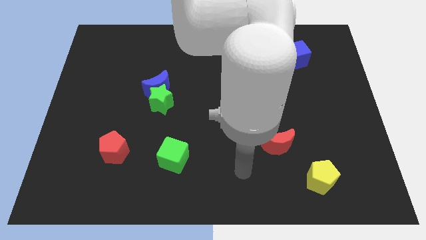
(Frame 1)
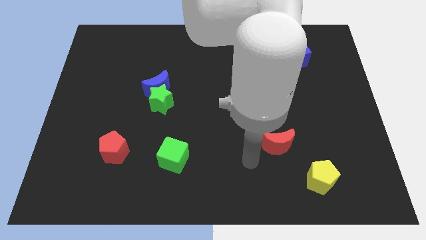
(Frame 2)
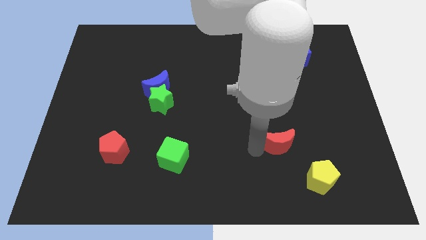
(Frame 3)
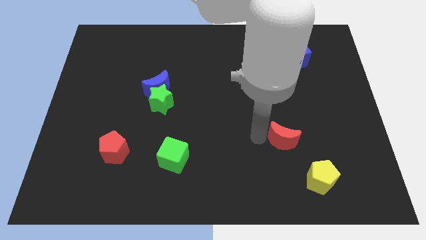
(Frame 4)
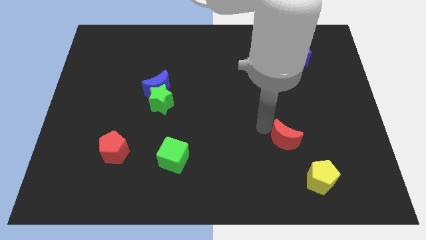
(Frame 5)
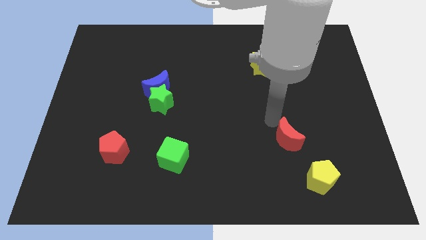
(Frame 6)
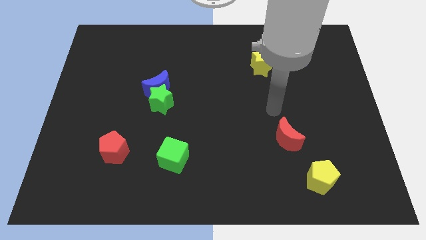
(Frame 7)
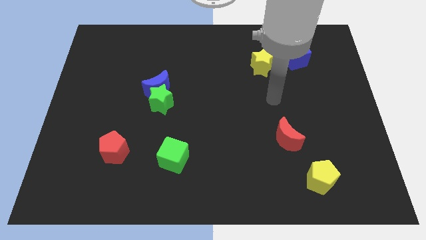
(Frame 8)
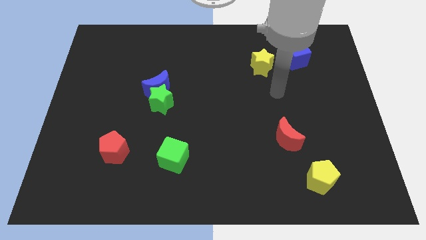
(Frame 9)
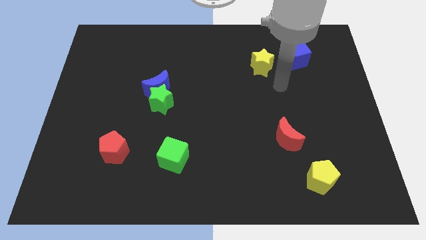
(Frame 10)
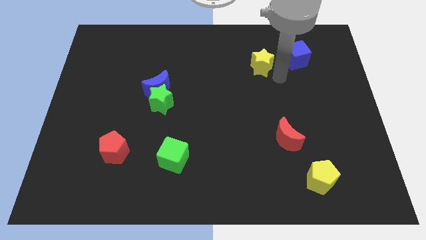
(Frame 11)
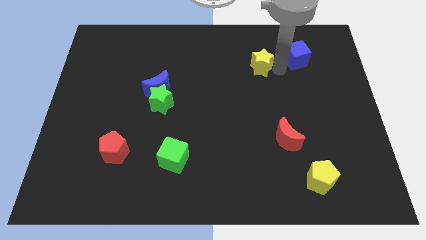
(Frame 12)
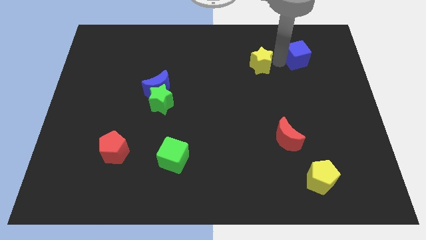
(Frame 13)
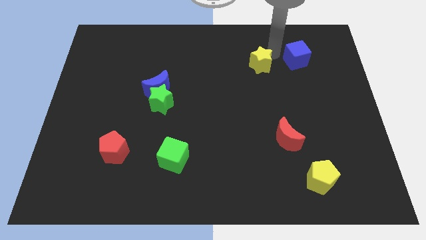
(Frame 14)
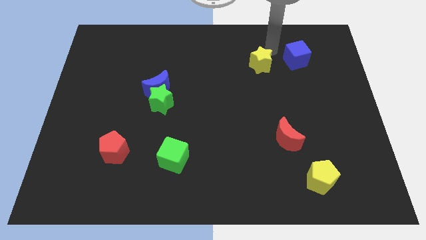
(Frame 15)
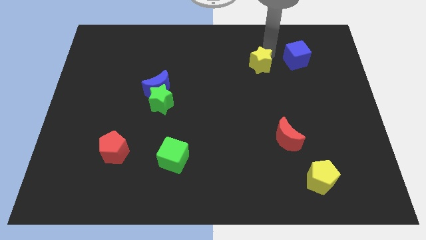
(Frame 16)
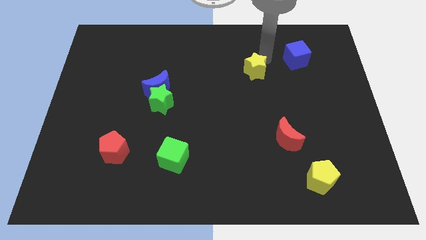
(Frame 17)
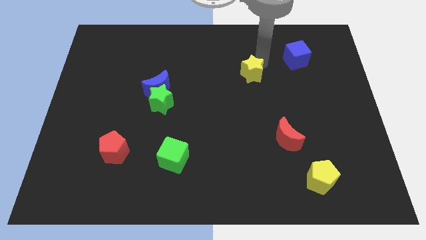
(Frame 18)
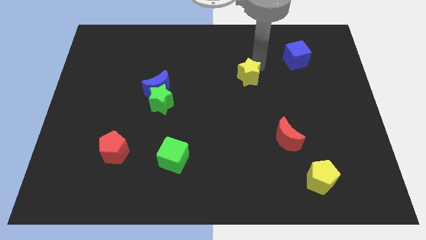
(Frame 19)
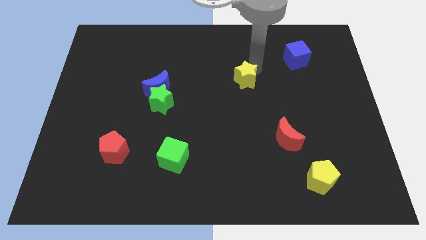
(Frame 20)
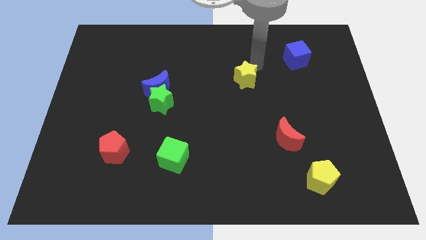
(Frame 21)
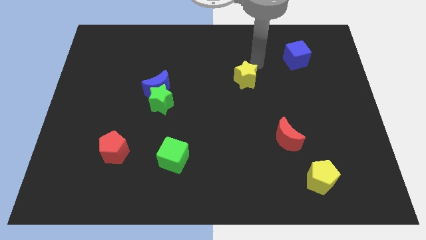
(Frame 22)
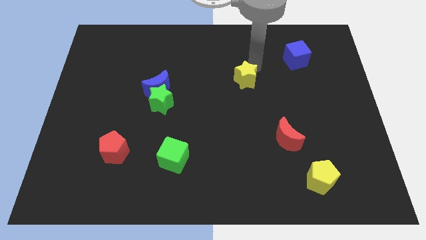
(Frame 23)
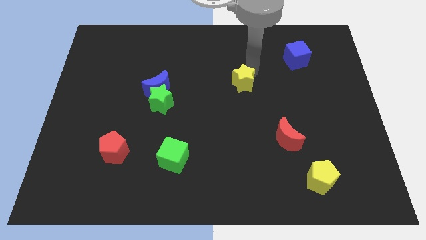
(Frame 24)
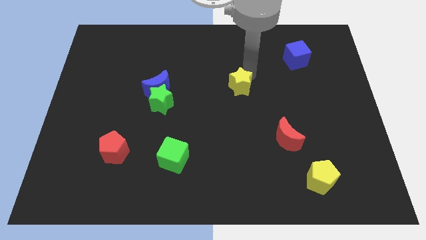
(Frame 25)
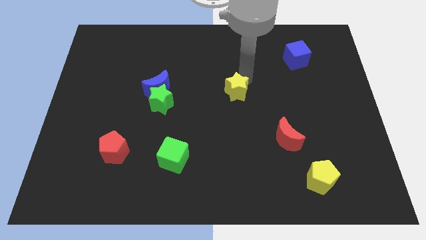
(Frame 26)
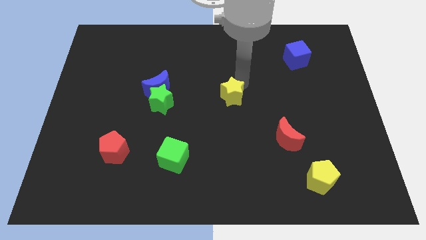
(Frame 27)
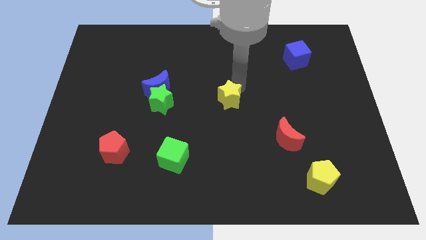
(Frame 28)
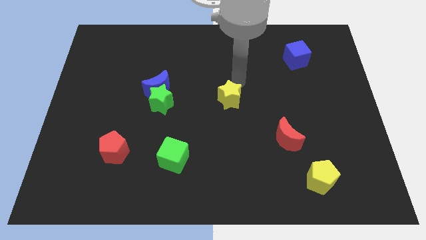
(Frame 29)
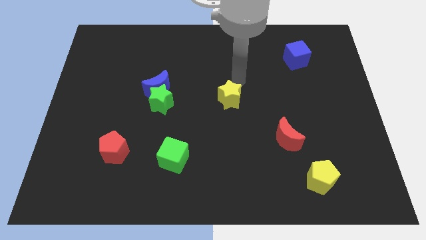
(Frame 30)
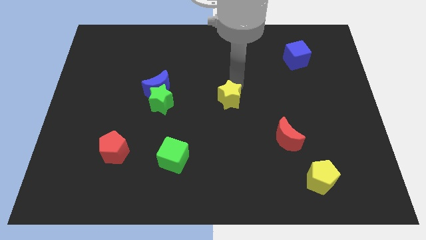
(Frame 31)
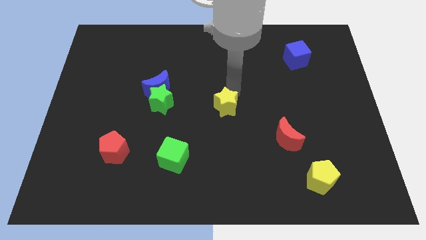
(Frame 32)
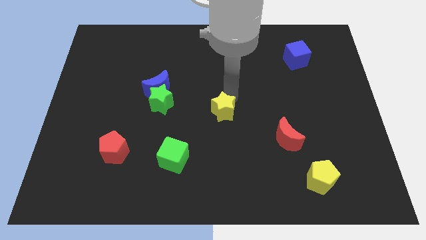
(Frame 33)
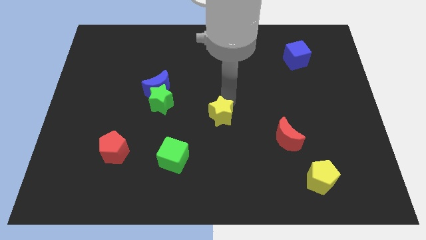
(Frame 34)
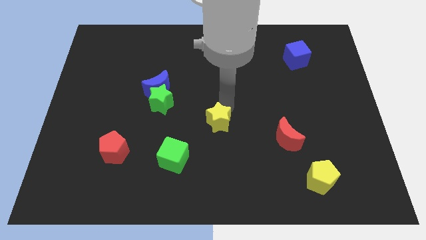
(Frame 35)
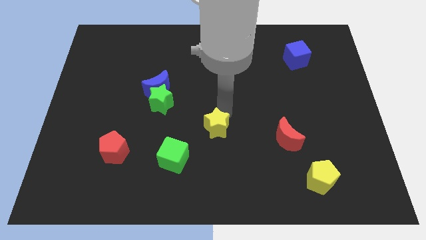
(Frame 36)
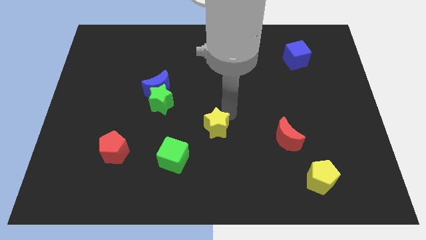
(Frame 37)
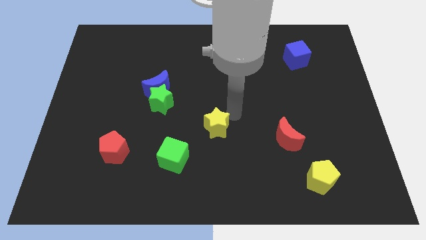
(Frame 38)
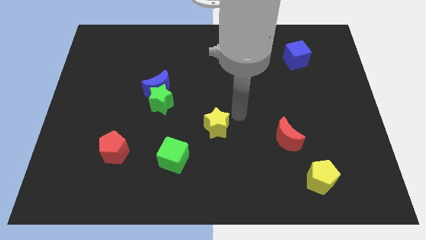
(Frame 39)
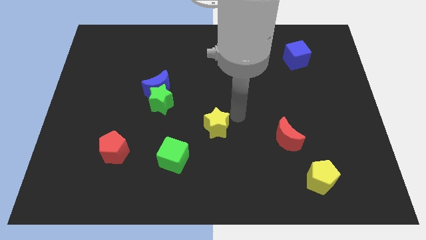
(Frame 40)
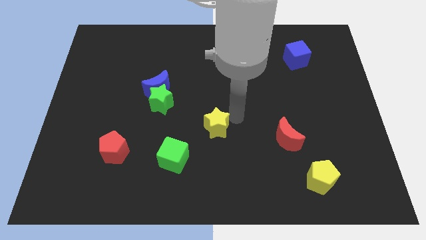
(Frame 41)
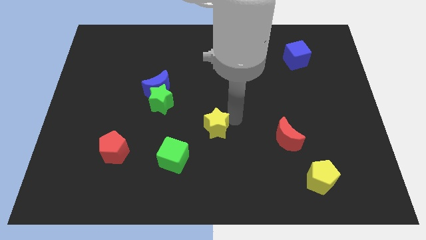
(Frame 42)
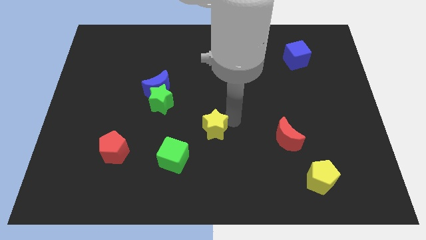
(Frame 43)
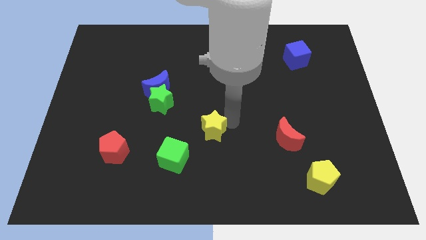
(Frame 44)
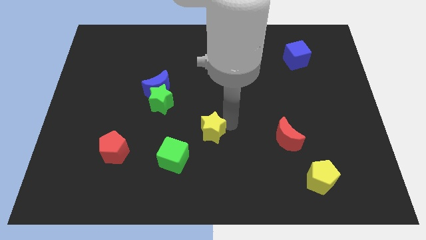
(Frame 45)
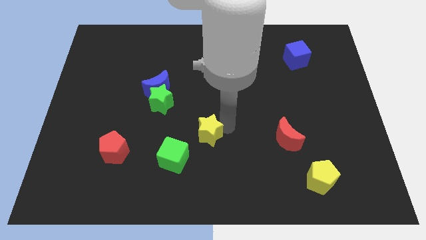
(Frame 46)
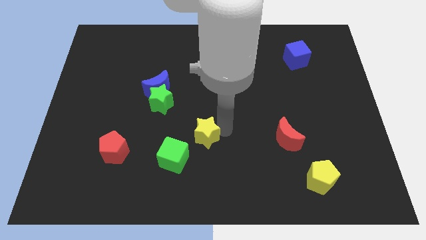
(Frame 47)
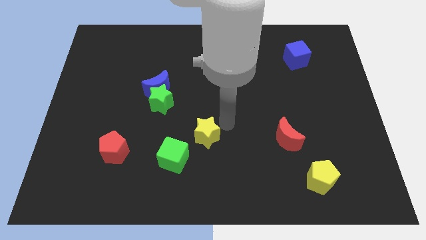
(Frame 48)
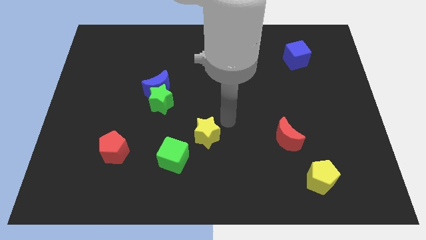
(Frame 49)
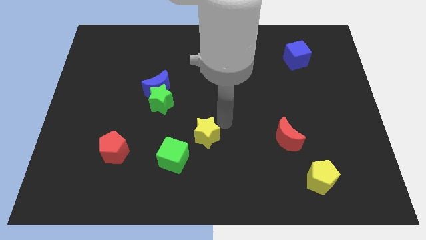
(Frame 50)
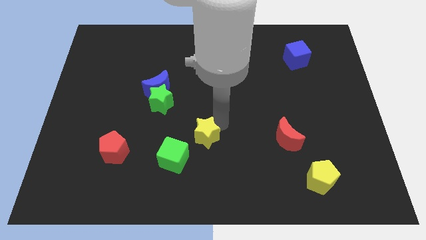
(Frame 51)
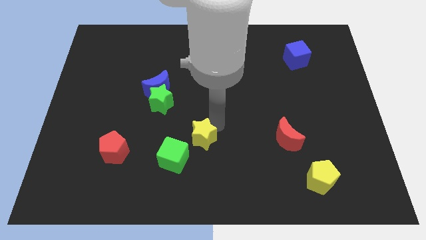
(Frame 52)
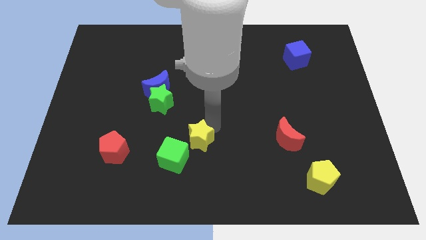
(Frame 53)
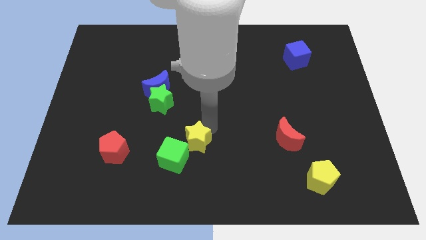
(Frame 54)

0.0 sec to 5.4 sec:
push the yellow star to the green cube

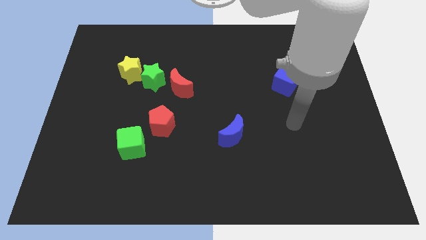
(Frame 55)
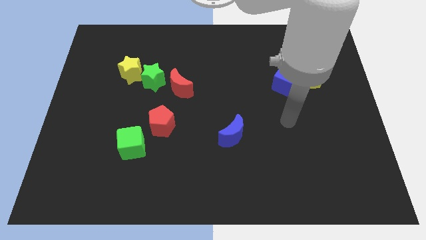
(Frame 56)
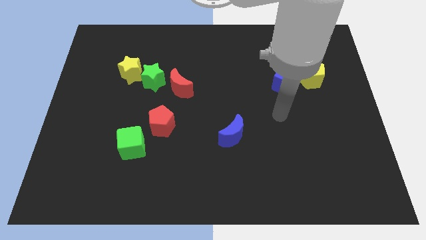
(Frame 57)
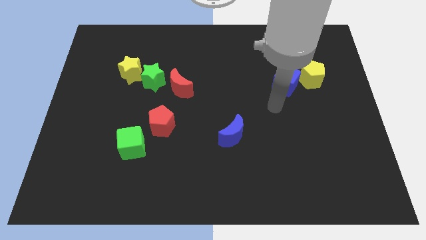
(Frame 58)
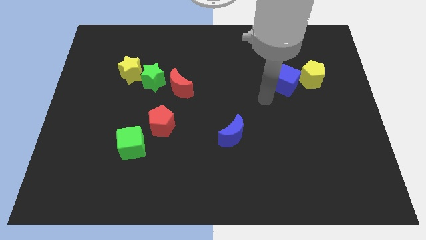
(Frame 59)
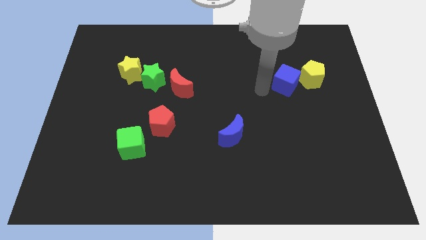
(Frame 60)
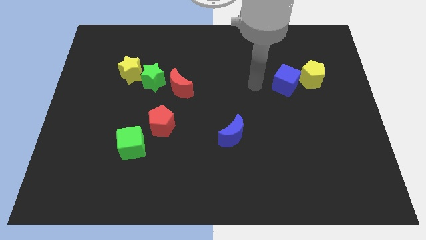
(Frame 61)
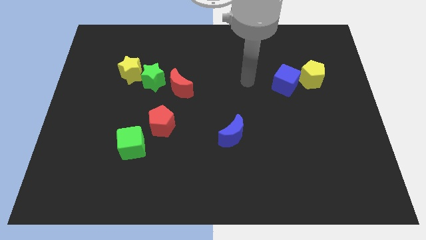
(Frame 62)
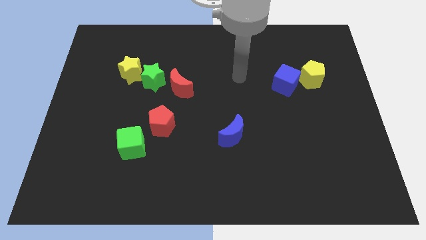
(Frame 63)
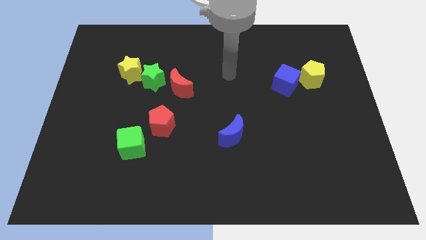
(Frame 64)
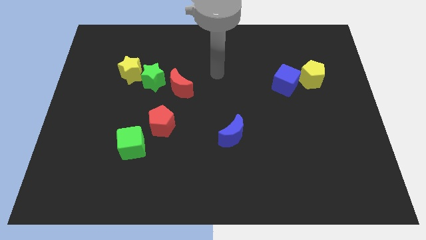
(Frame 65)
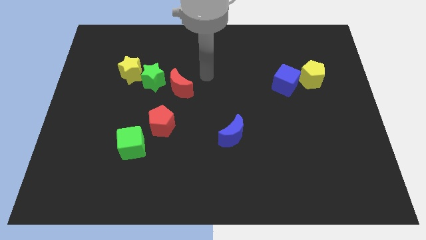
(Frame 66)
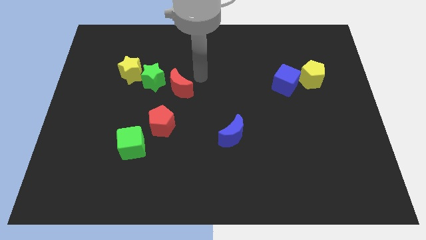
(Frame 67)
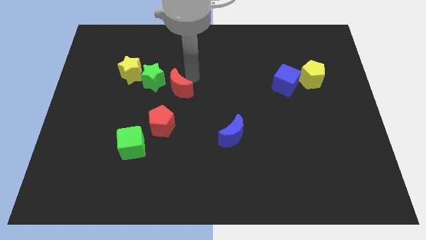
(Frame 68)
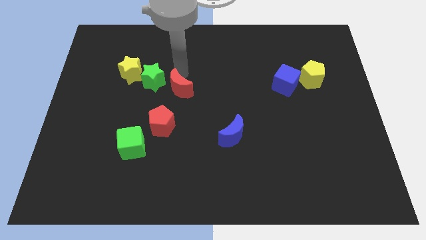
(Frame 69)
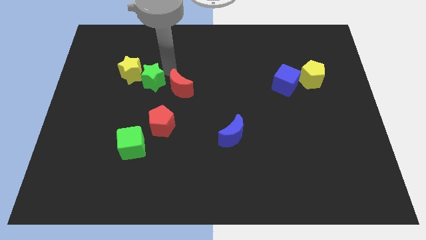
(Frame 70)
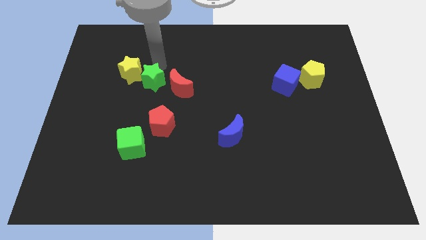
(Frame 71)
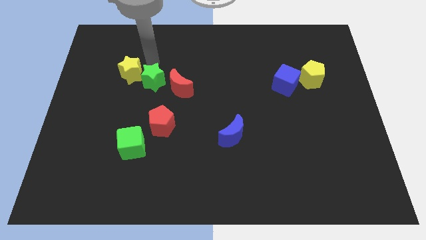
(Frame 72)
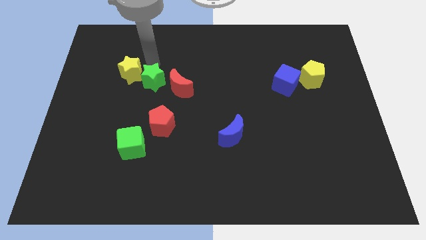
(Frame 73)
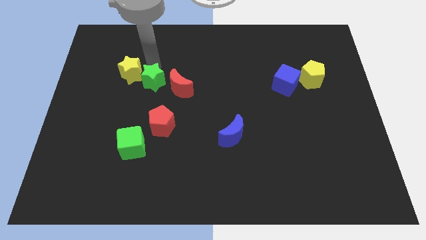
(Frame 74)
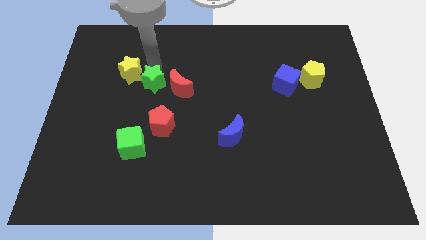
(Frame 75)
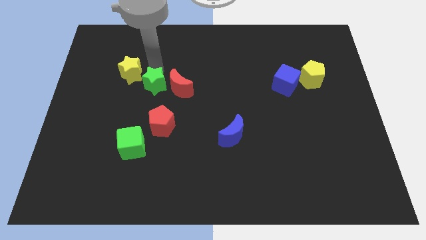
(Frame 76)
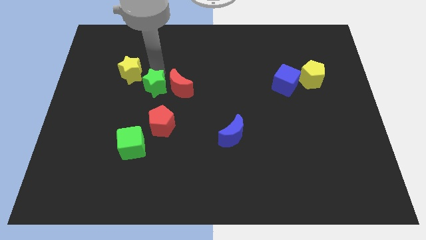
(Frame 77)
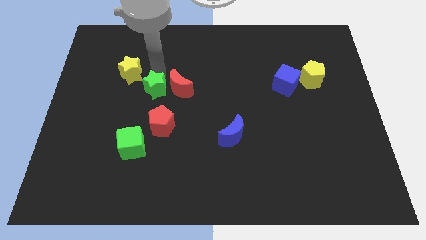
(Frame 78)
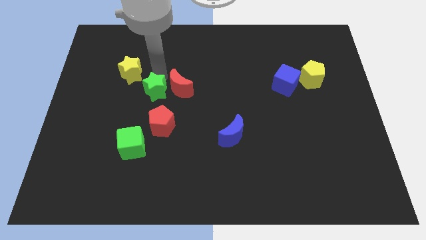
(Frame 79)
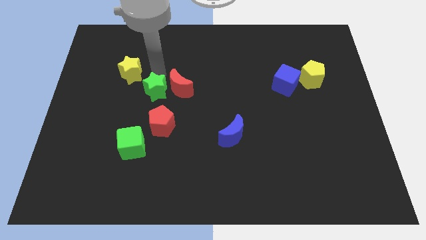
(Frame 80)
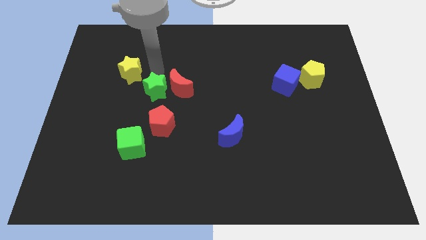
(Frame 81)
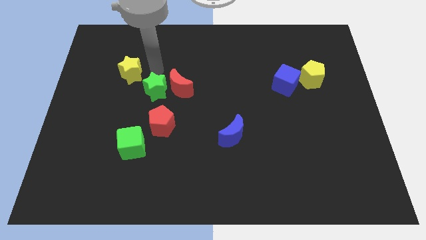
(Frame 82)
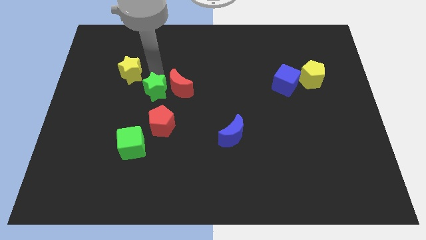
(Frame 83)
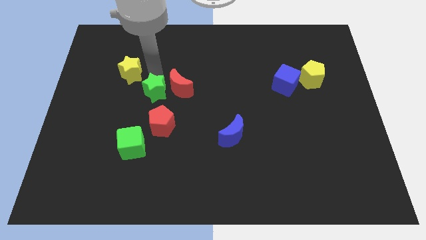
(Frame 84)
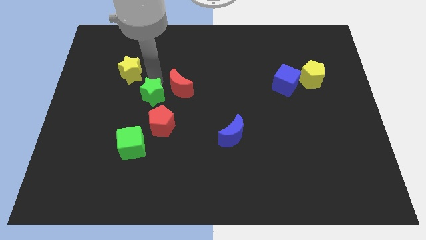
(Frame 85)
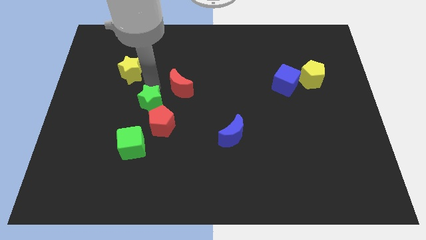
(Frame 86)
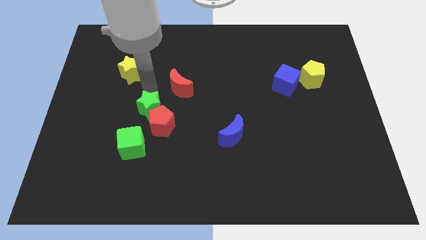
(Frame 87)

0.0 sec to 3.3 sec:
push the green star towards the red pentagon
